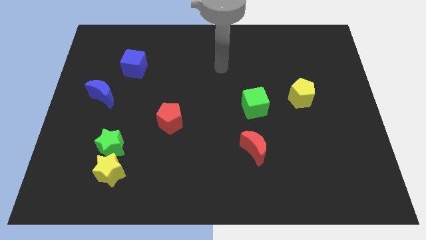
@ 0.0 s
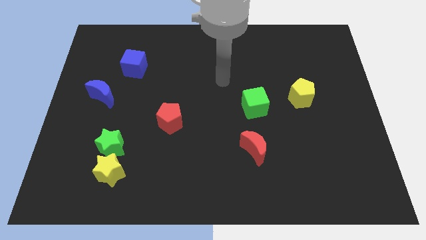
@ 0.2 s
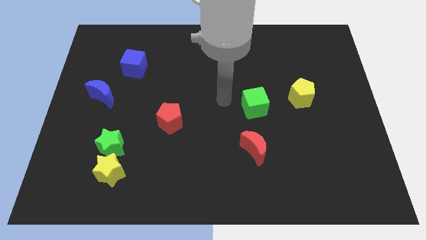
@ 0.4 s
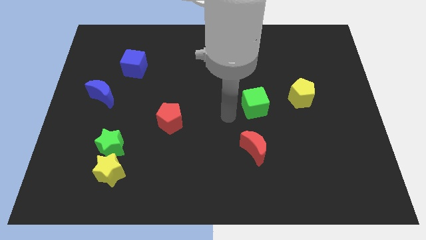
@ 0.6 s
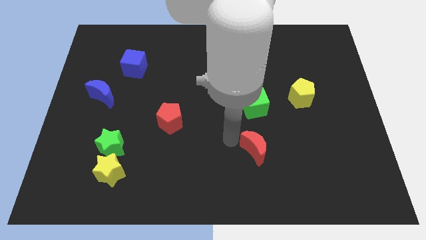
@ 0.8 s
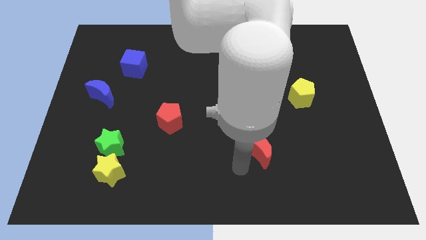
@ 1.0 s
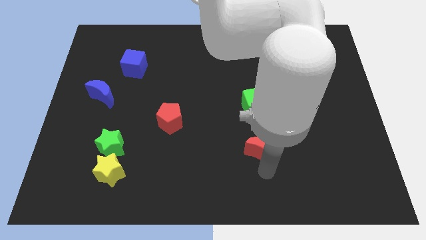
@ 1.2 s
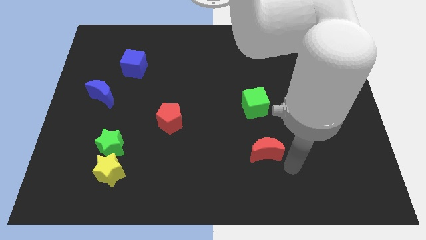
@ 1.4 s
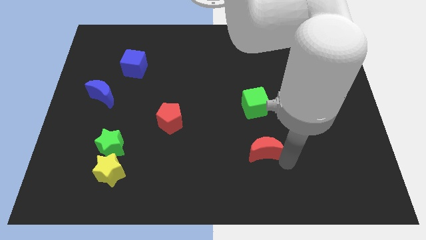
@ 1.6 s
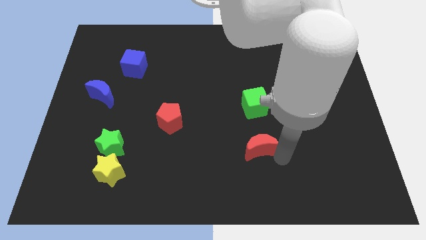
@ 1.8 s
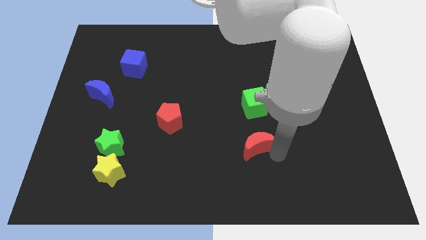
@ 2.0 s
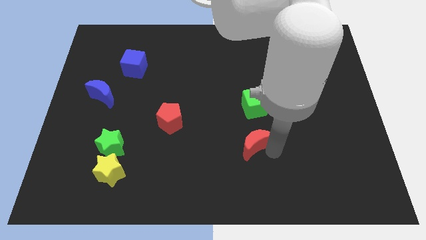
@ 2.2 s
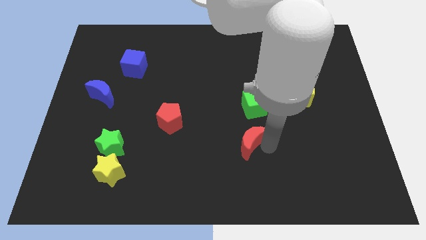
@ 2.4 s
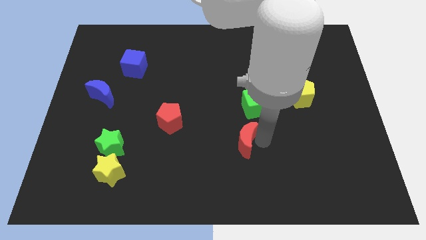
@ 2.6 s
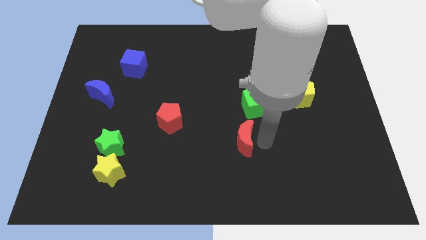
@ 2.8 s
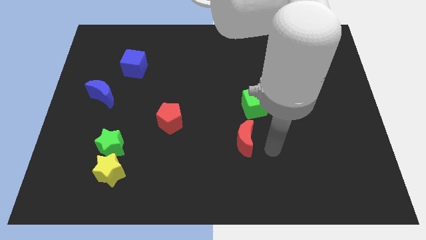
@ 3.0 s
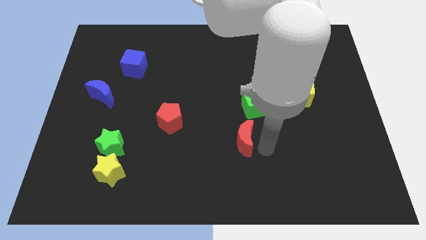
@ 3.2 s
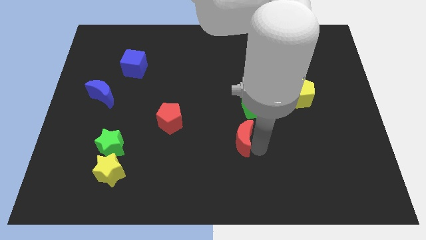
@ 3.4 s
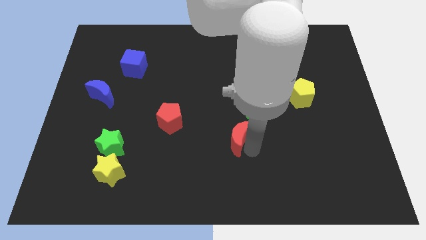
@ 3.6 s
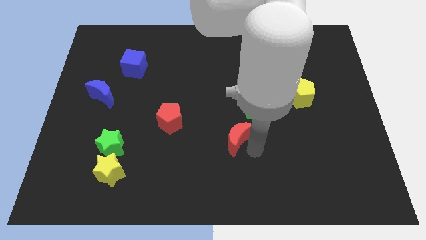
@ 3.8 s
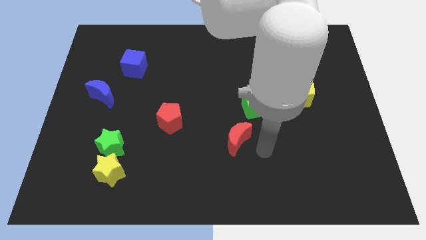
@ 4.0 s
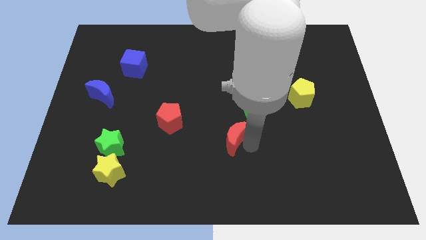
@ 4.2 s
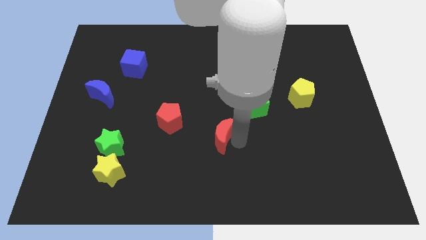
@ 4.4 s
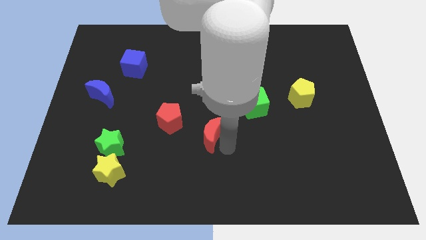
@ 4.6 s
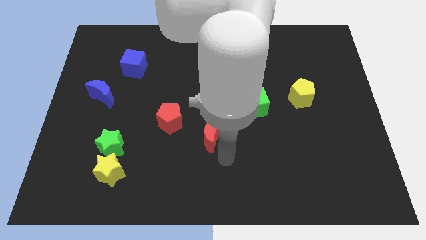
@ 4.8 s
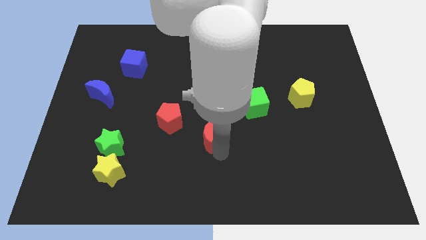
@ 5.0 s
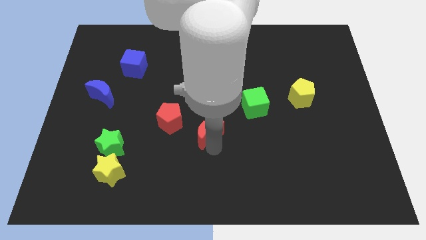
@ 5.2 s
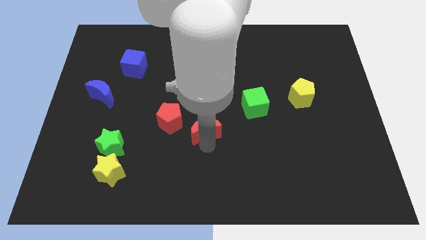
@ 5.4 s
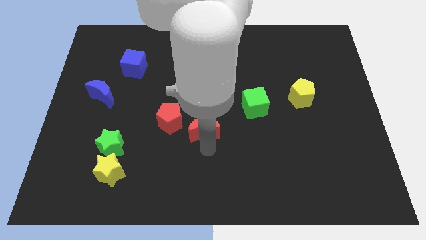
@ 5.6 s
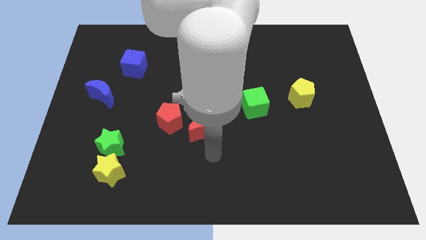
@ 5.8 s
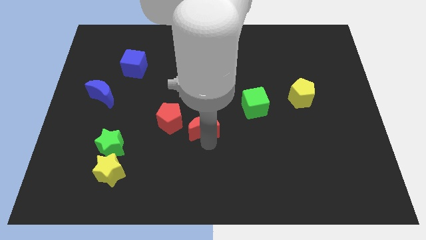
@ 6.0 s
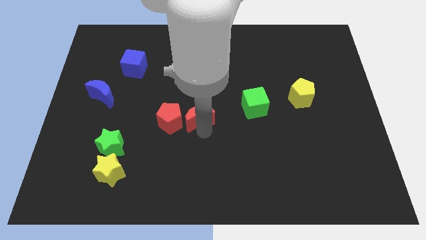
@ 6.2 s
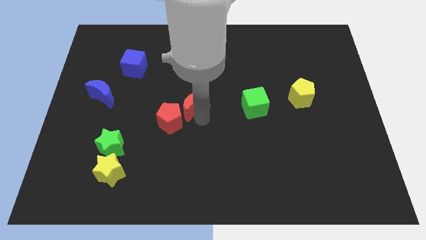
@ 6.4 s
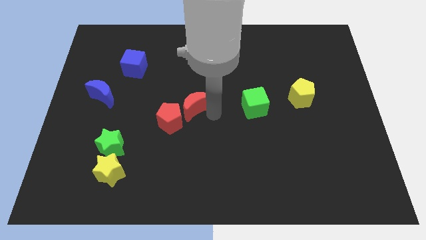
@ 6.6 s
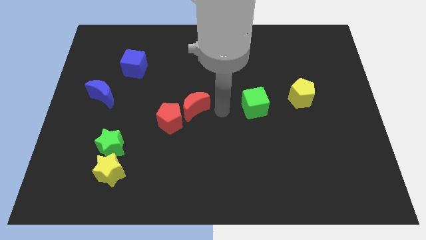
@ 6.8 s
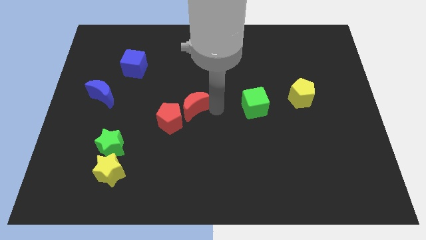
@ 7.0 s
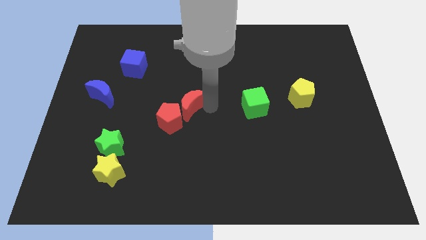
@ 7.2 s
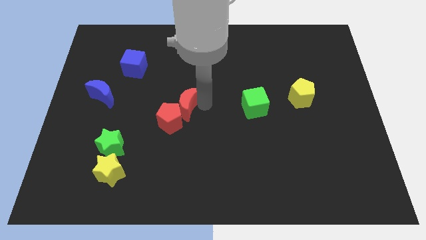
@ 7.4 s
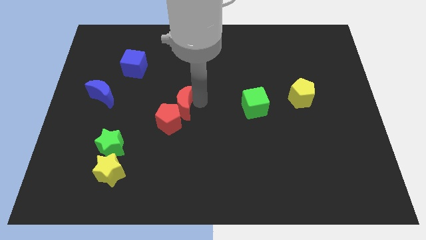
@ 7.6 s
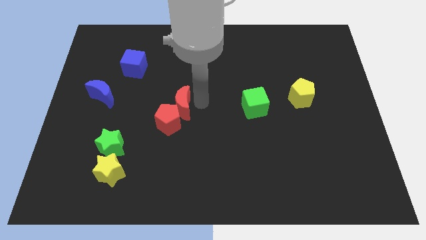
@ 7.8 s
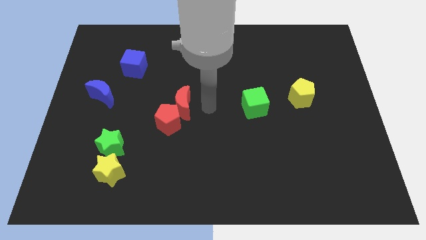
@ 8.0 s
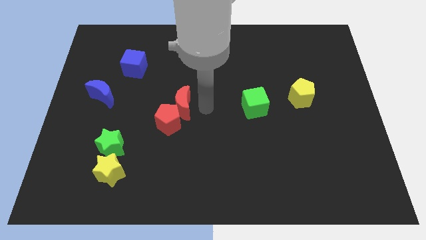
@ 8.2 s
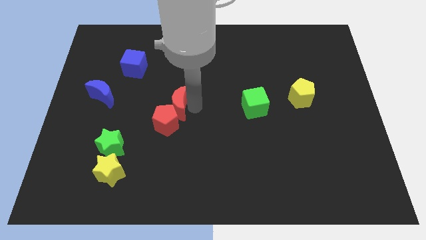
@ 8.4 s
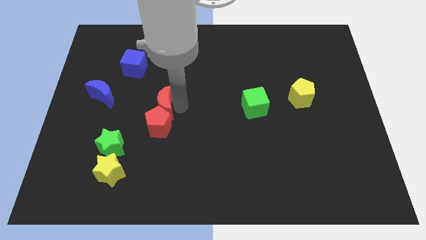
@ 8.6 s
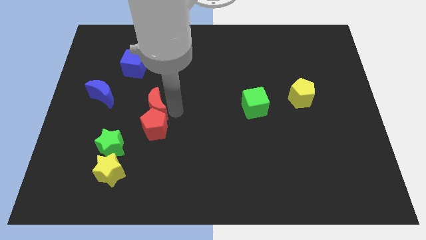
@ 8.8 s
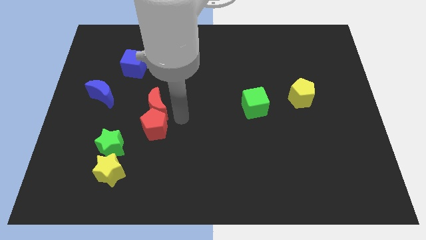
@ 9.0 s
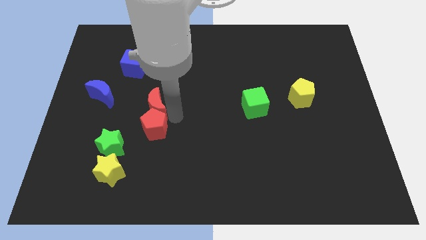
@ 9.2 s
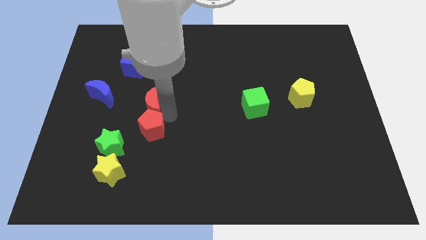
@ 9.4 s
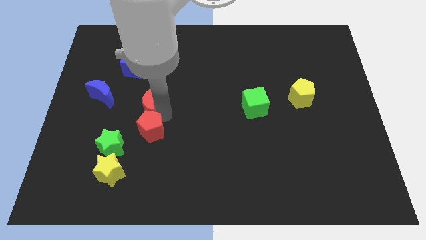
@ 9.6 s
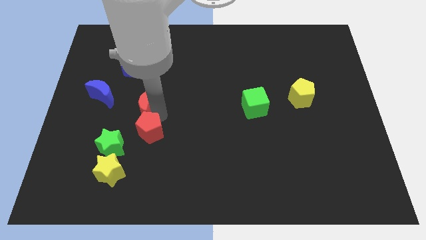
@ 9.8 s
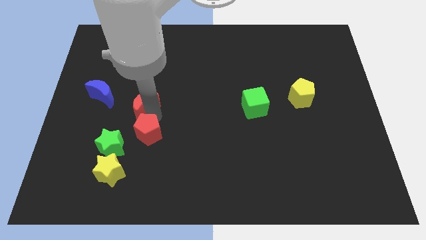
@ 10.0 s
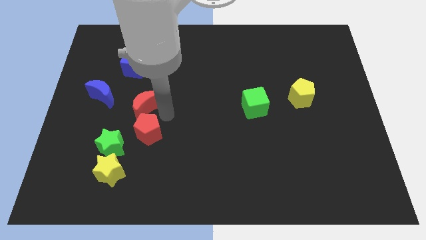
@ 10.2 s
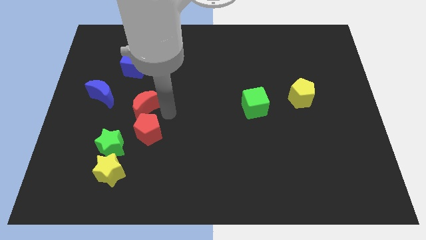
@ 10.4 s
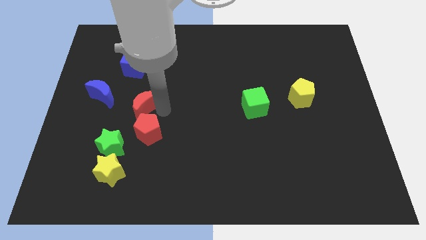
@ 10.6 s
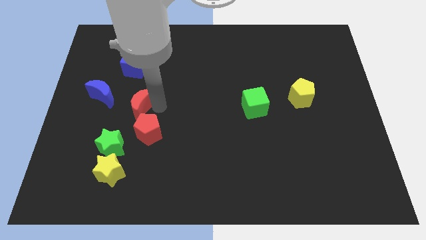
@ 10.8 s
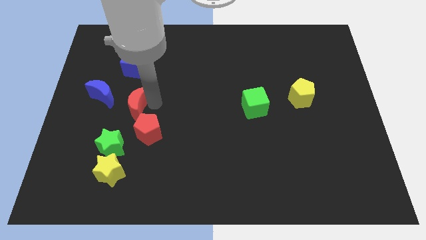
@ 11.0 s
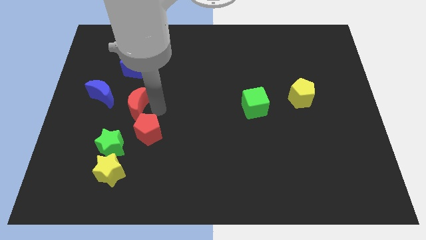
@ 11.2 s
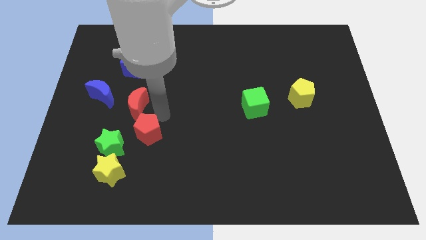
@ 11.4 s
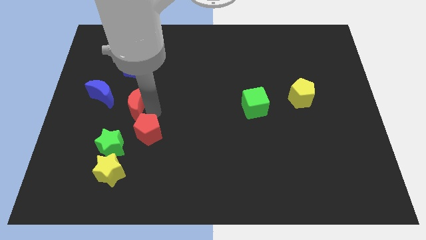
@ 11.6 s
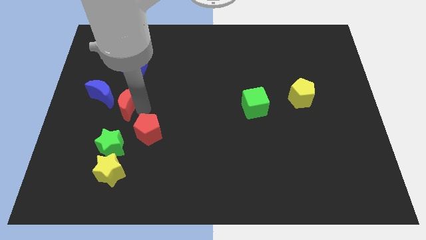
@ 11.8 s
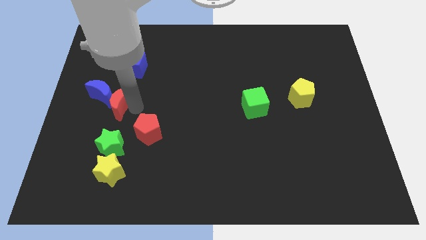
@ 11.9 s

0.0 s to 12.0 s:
put the red moon next to the blue moon
